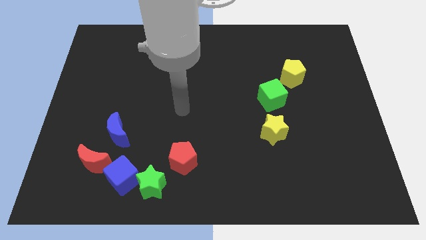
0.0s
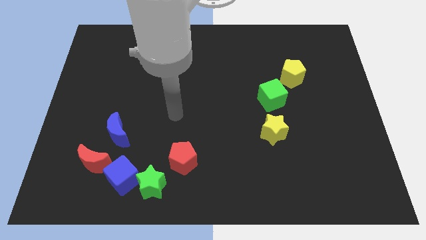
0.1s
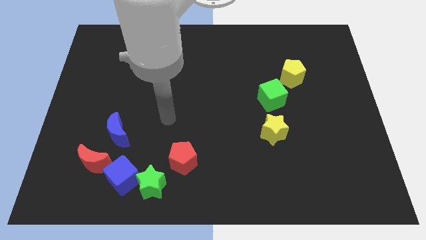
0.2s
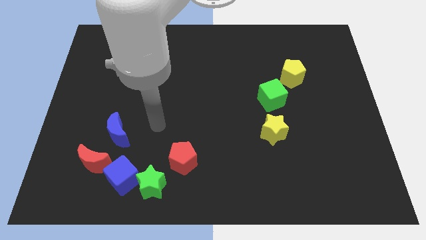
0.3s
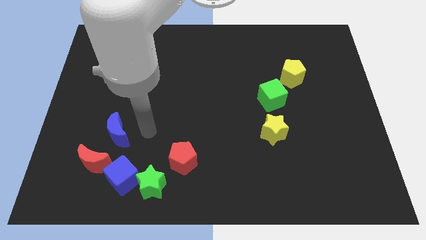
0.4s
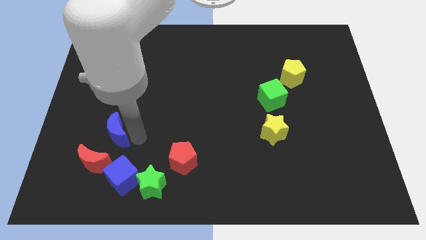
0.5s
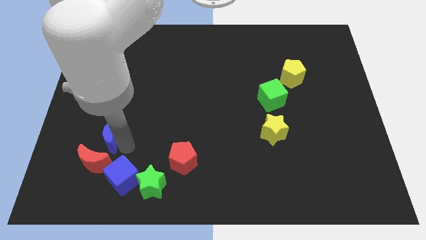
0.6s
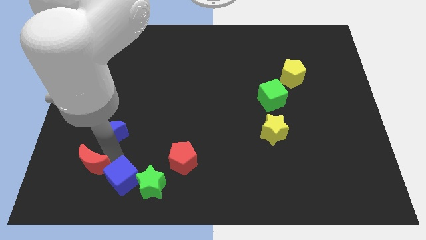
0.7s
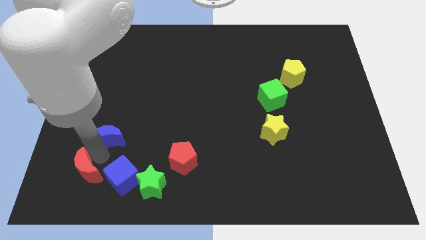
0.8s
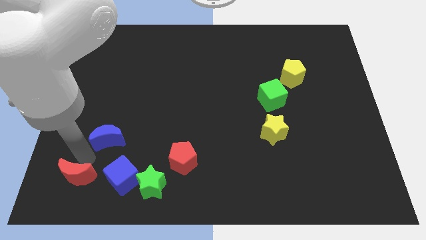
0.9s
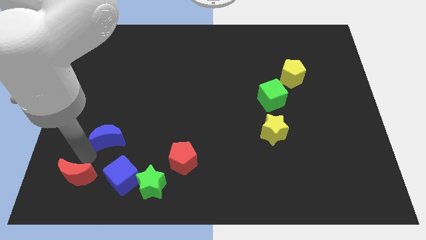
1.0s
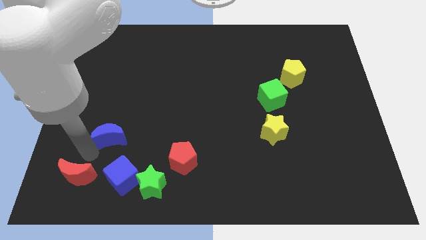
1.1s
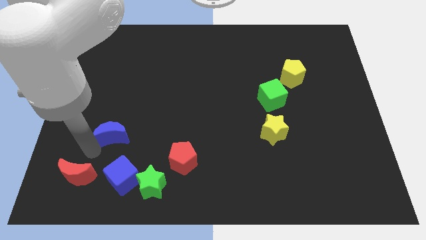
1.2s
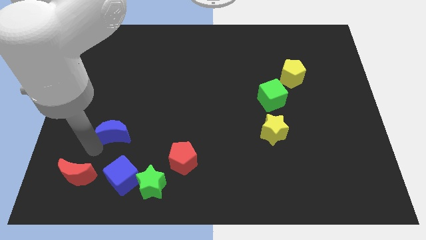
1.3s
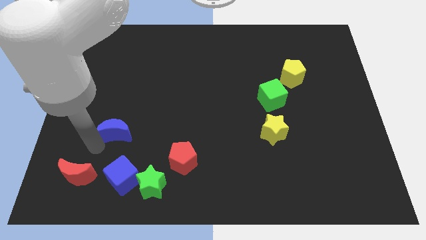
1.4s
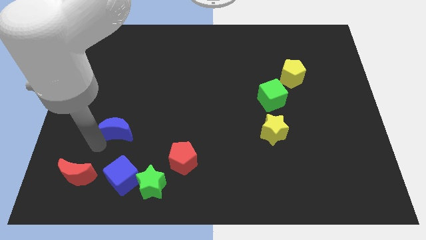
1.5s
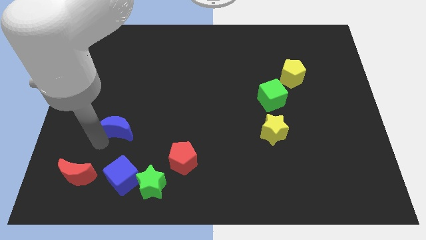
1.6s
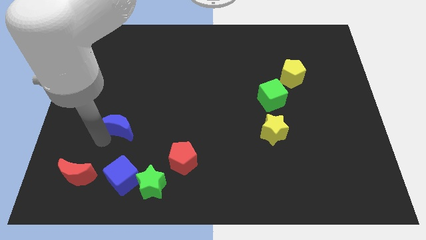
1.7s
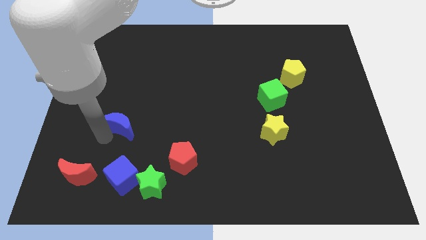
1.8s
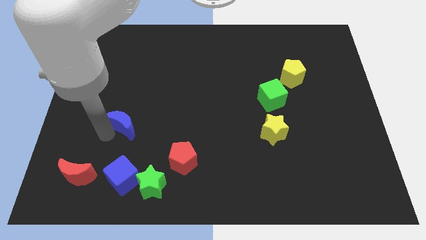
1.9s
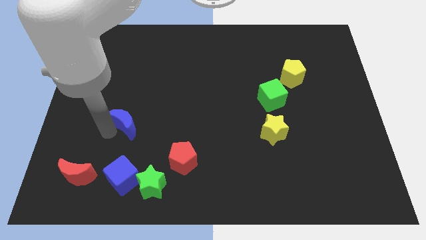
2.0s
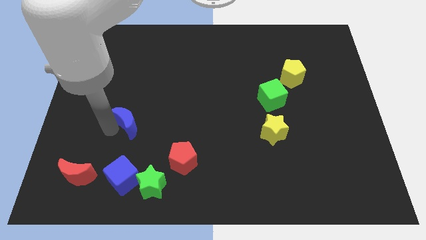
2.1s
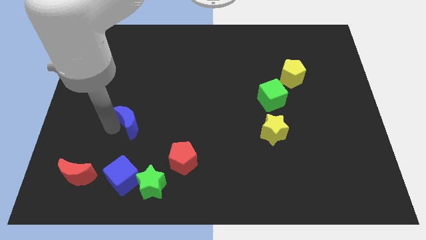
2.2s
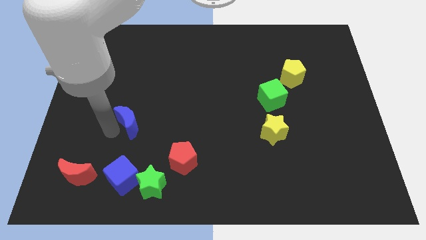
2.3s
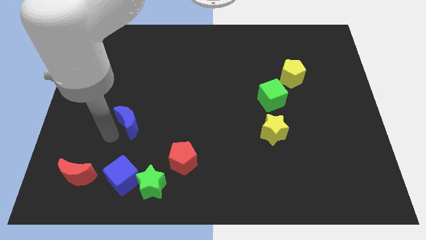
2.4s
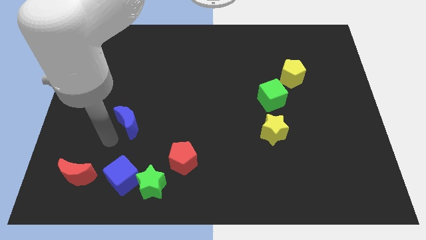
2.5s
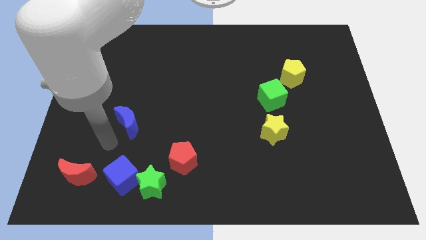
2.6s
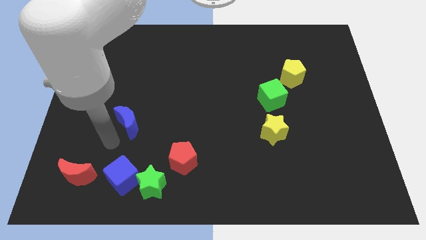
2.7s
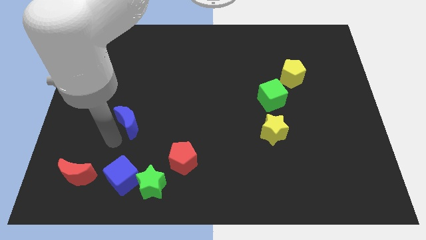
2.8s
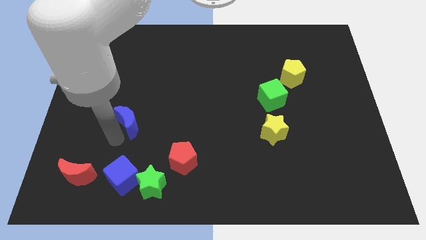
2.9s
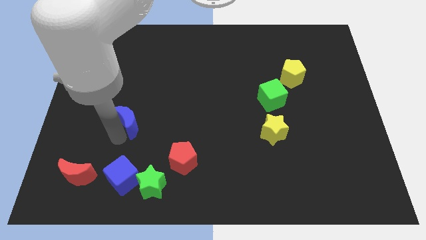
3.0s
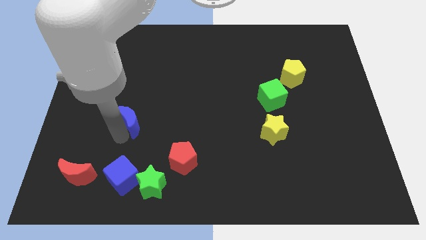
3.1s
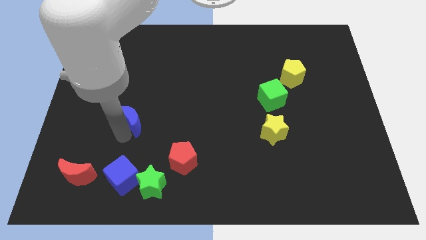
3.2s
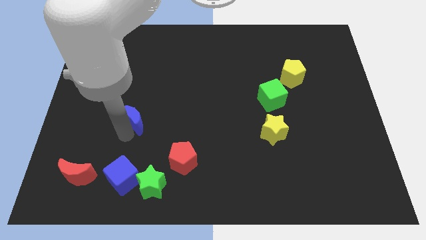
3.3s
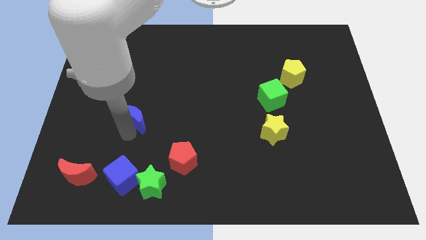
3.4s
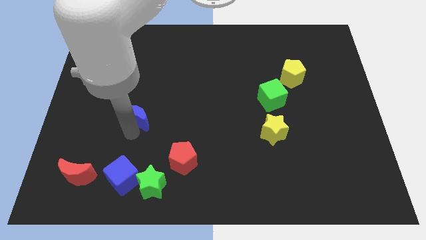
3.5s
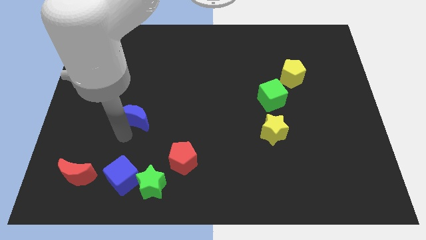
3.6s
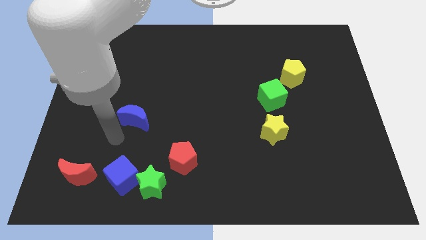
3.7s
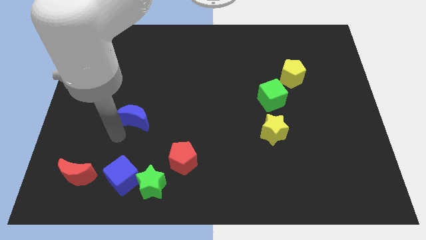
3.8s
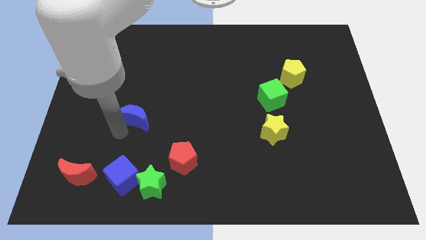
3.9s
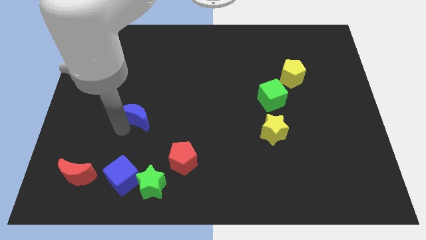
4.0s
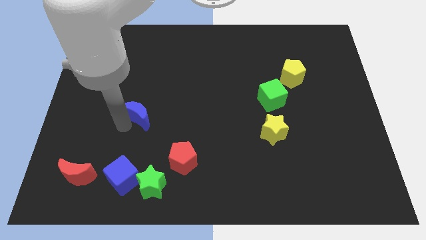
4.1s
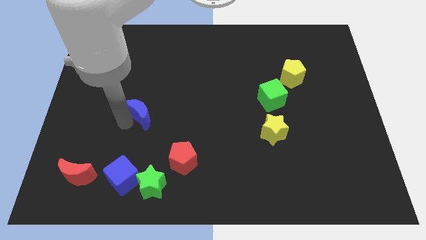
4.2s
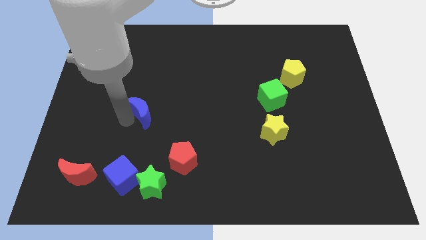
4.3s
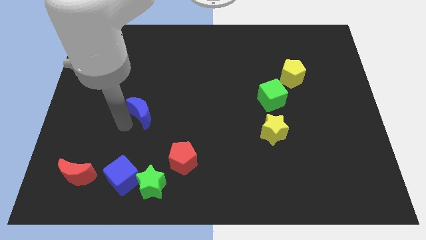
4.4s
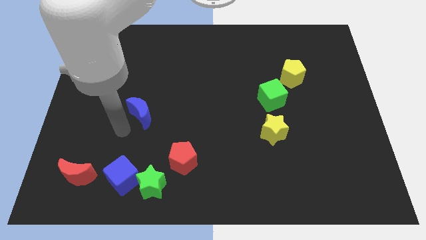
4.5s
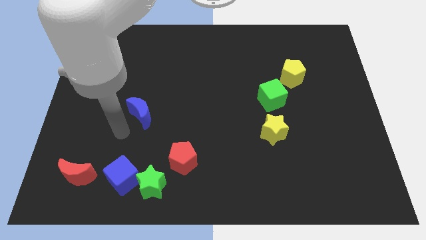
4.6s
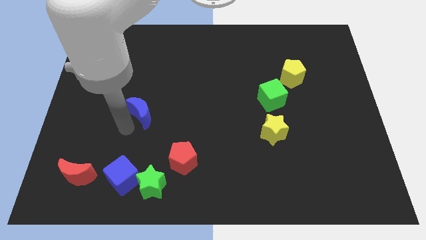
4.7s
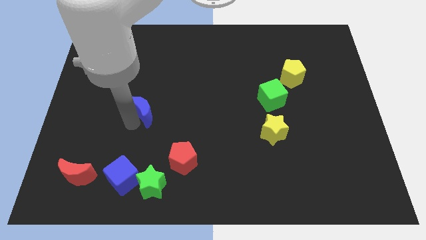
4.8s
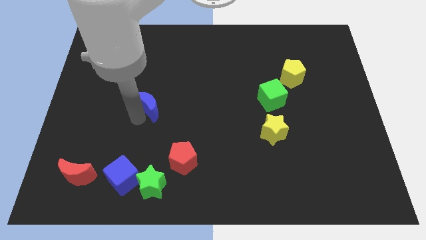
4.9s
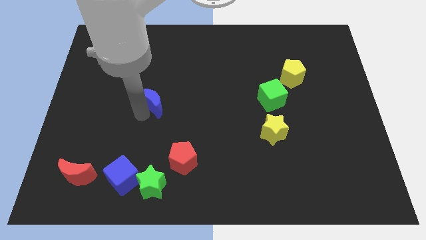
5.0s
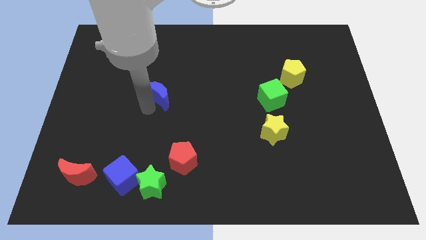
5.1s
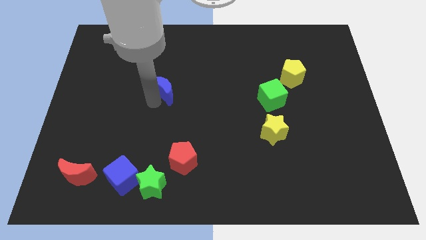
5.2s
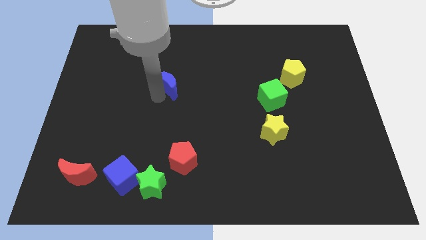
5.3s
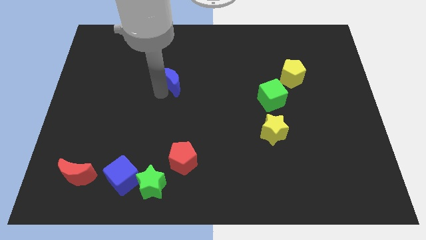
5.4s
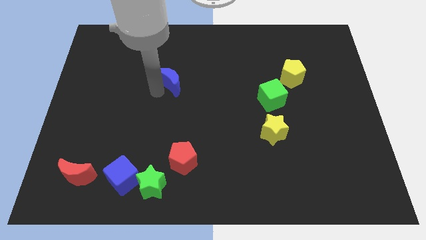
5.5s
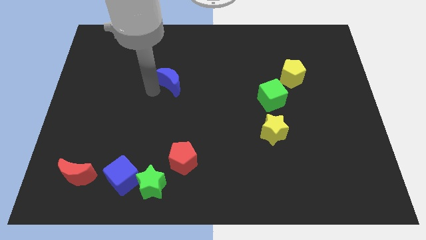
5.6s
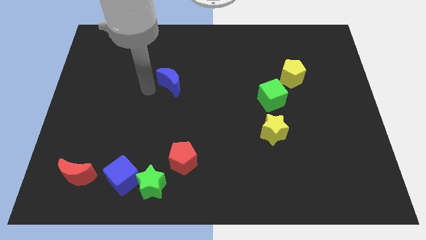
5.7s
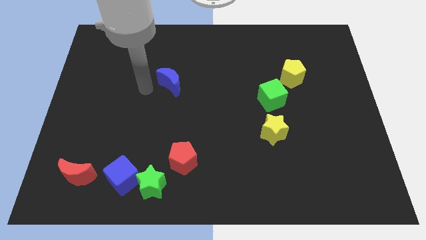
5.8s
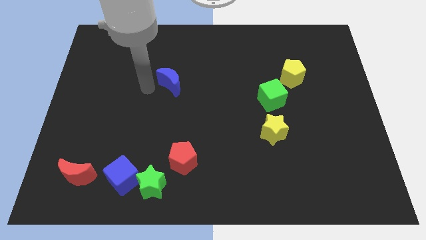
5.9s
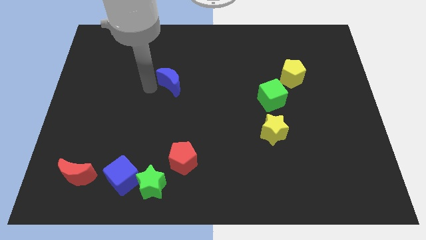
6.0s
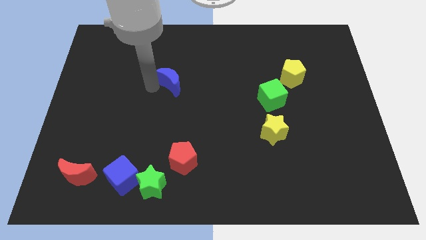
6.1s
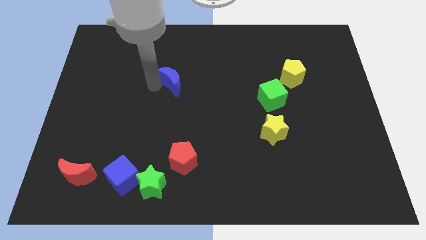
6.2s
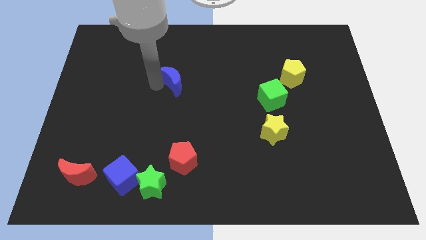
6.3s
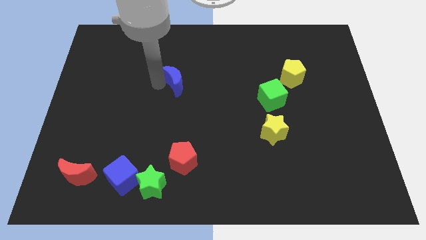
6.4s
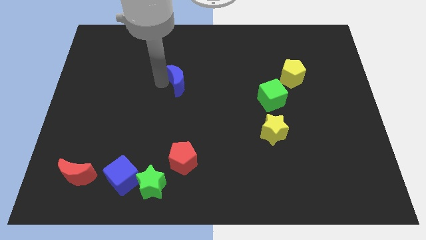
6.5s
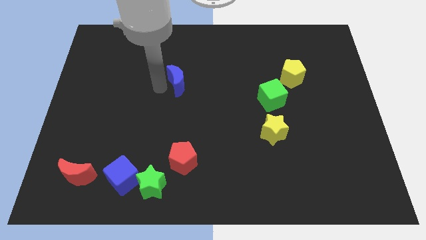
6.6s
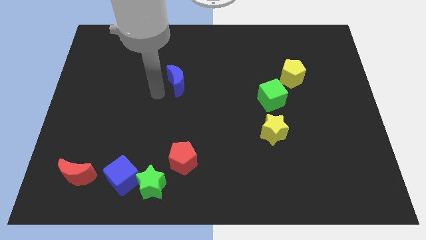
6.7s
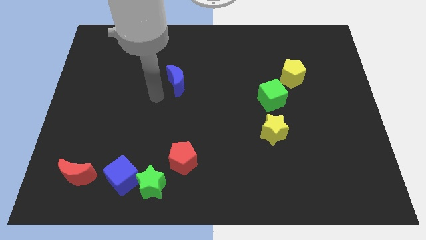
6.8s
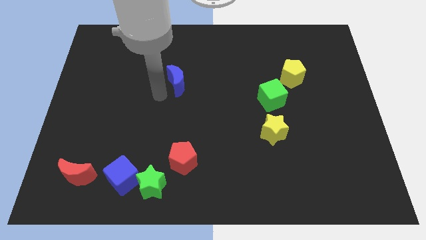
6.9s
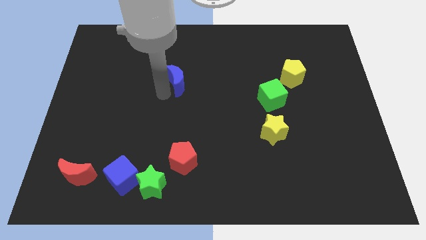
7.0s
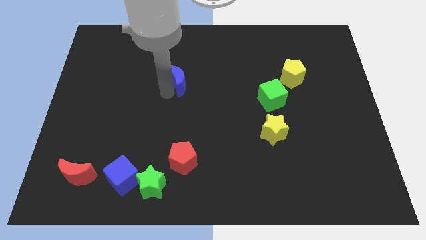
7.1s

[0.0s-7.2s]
push the blue moon upwards and to the right diagonally

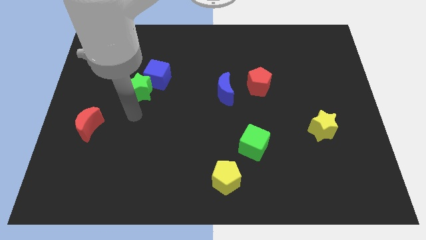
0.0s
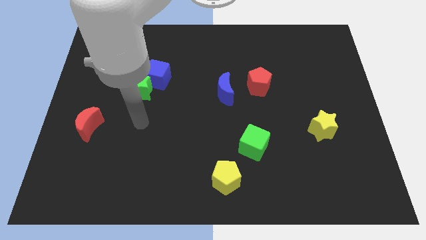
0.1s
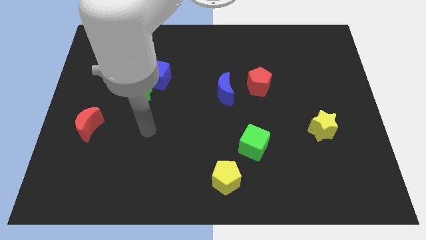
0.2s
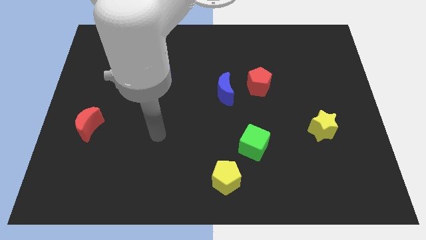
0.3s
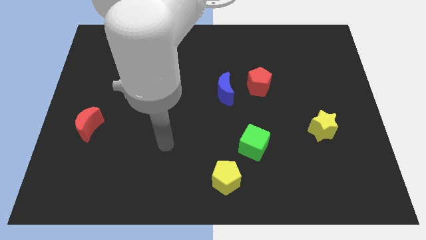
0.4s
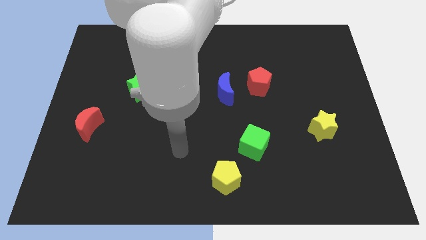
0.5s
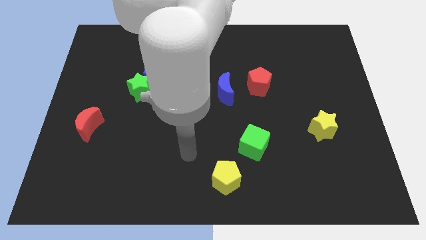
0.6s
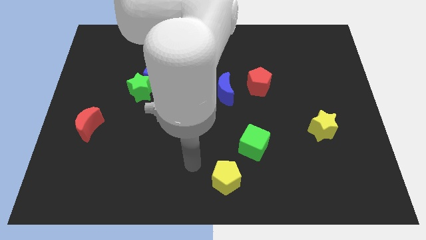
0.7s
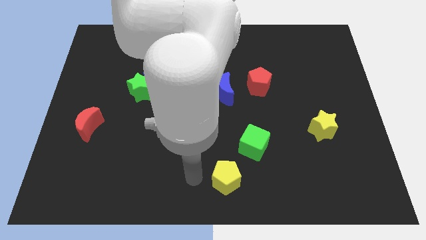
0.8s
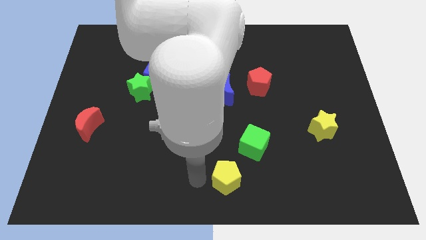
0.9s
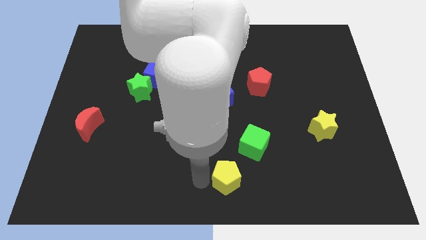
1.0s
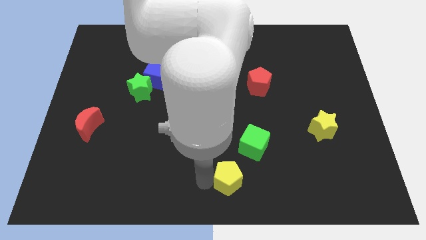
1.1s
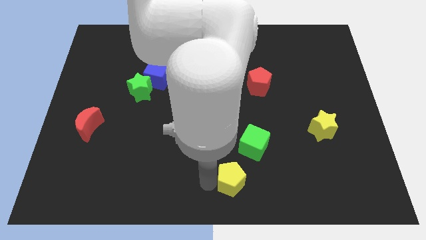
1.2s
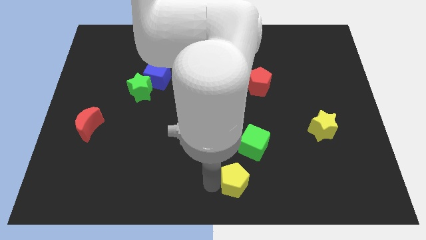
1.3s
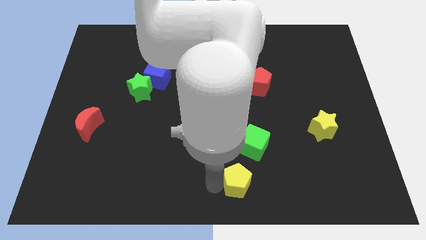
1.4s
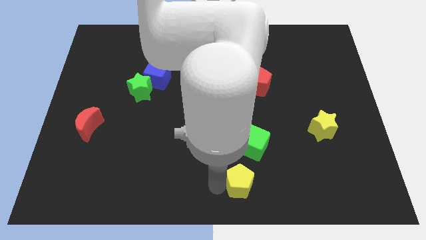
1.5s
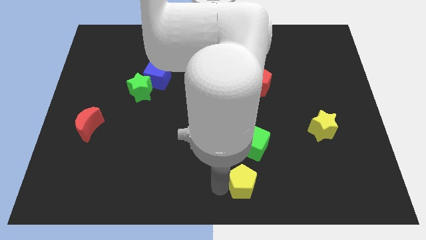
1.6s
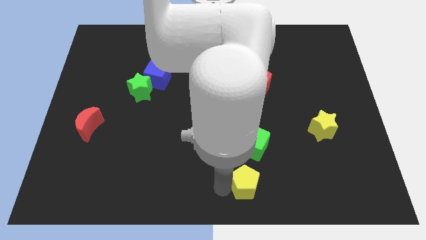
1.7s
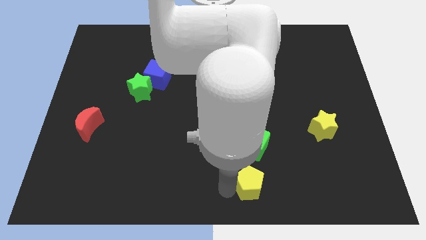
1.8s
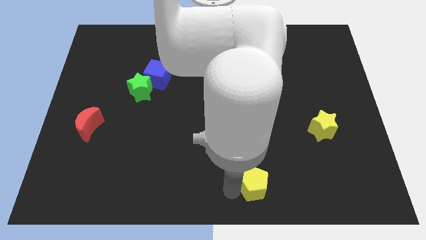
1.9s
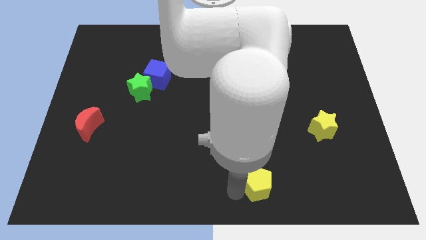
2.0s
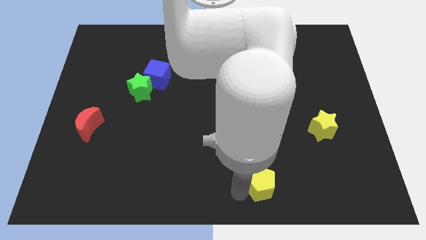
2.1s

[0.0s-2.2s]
move the yellow pentagon a little bit to the right
